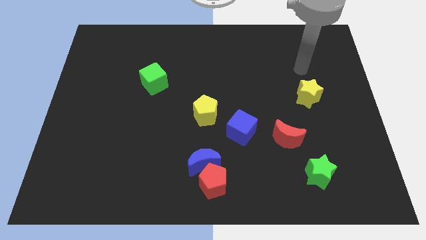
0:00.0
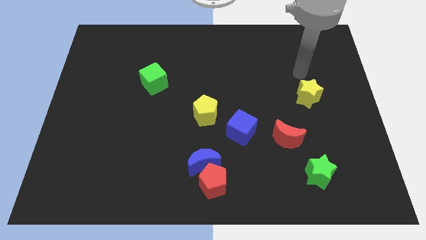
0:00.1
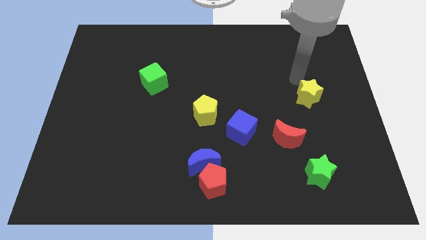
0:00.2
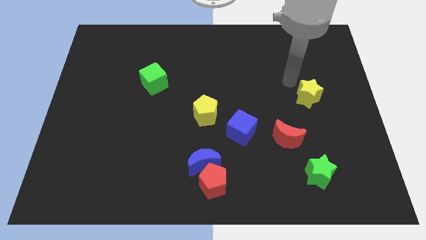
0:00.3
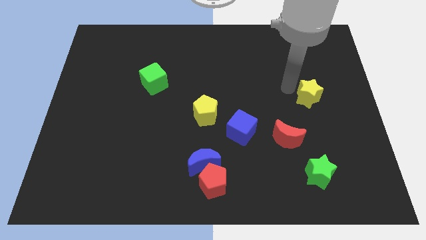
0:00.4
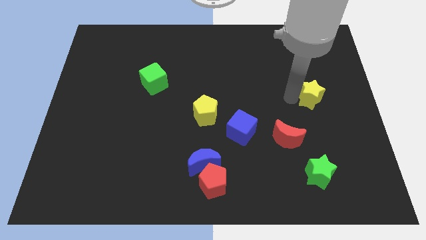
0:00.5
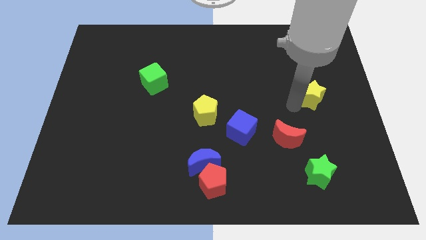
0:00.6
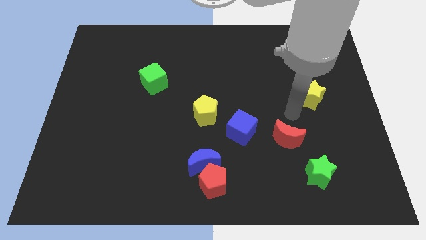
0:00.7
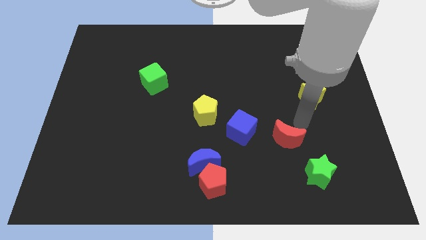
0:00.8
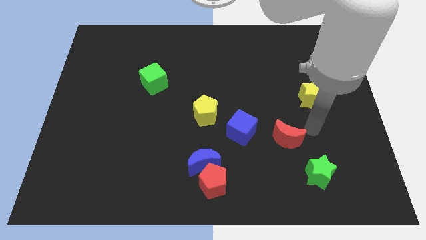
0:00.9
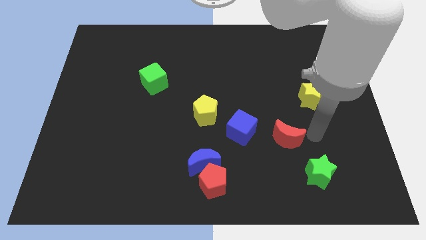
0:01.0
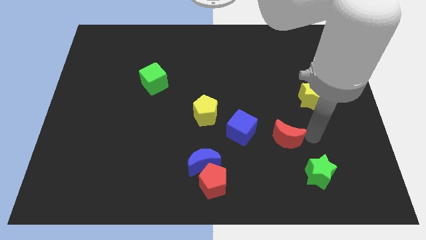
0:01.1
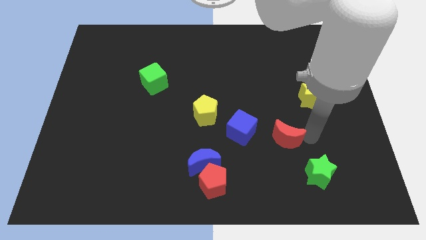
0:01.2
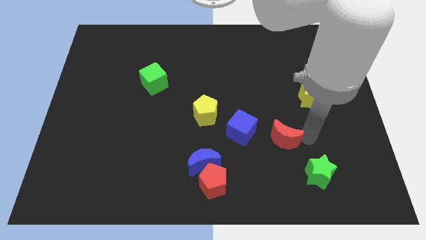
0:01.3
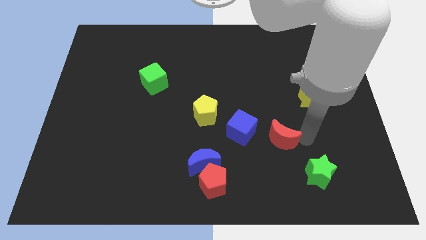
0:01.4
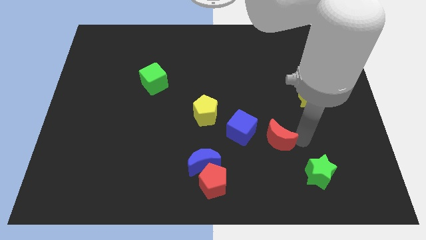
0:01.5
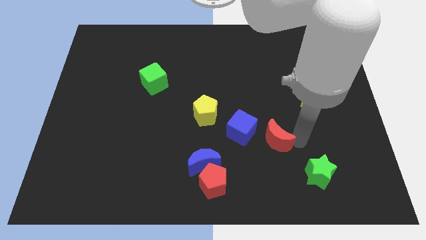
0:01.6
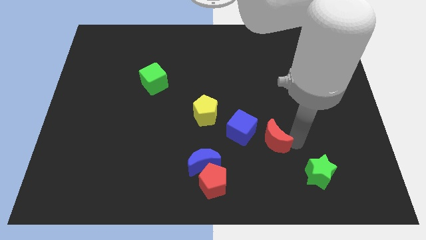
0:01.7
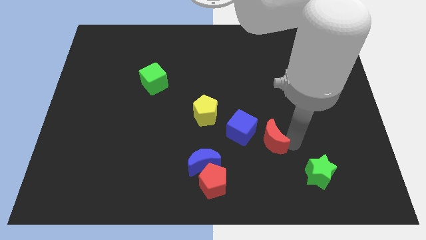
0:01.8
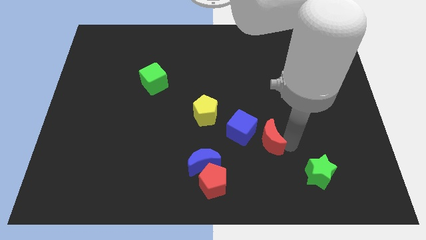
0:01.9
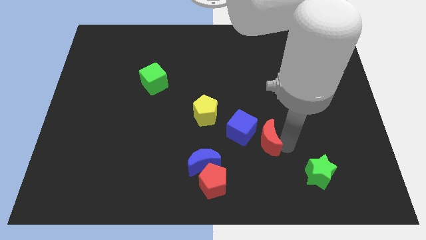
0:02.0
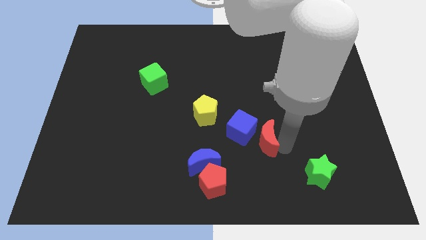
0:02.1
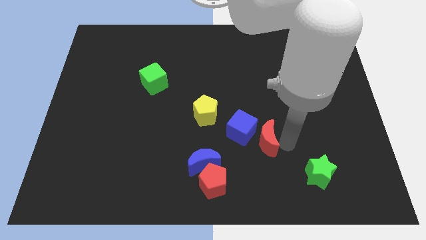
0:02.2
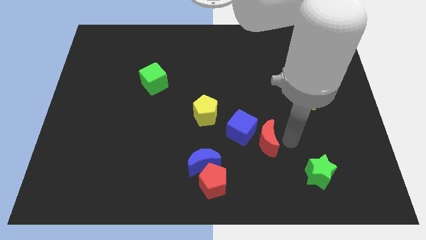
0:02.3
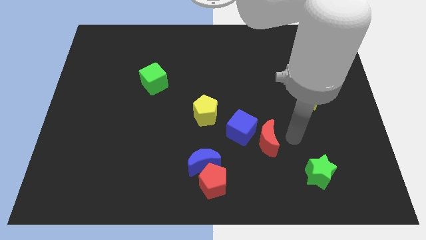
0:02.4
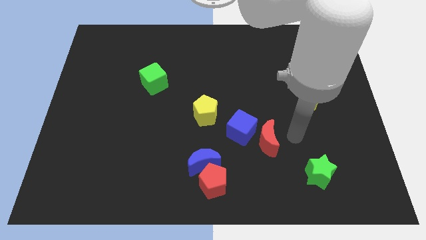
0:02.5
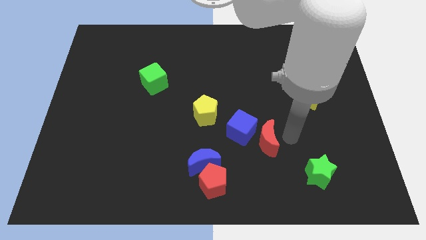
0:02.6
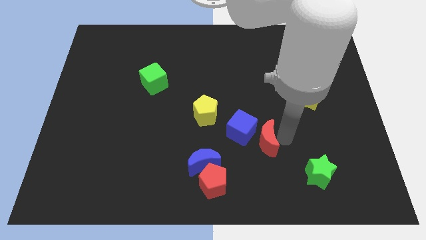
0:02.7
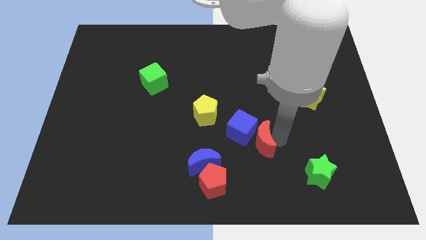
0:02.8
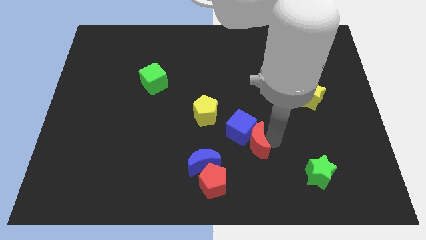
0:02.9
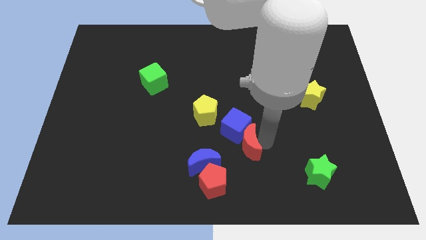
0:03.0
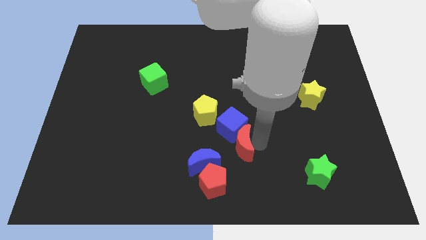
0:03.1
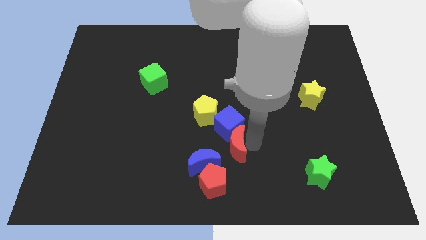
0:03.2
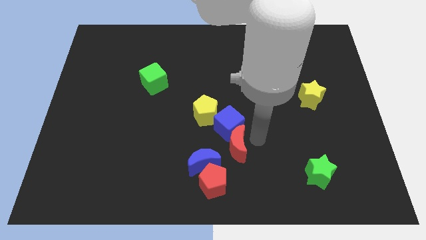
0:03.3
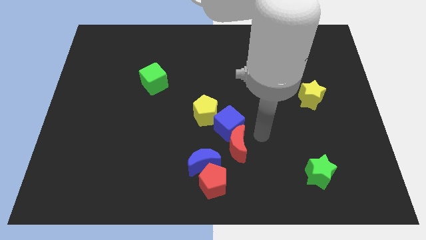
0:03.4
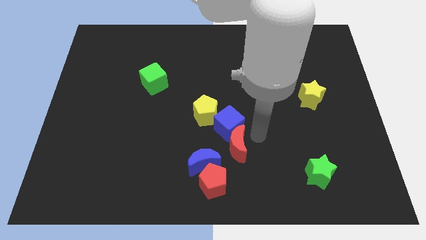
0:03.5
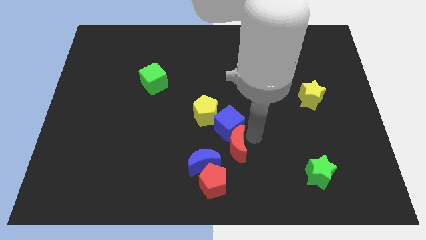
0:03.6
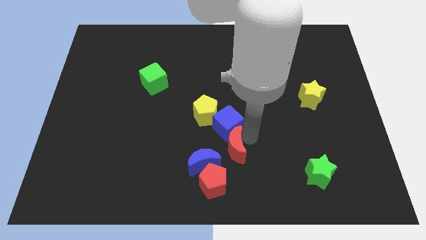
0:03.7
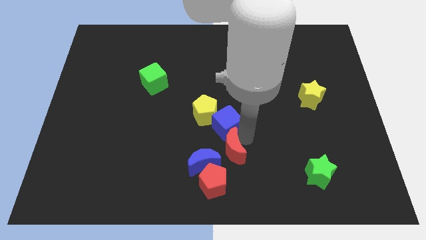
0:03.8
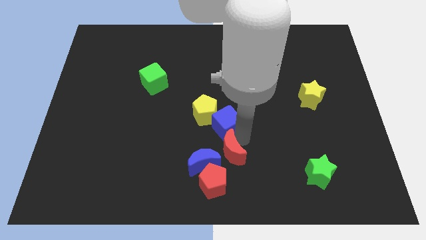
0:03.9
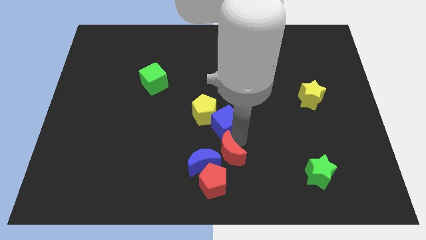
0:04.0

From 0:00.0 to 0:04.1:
move the red moon towards the blue moon

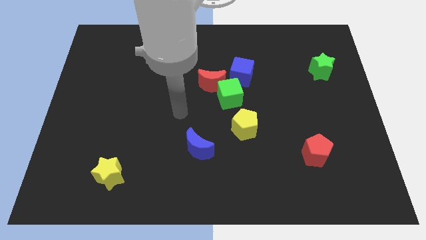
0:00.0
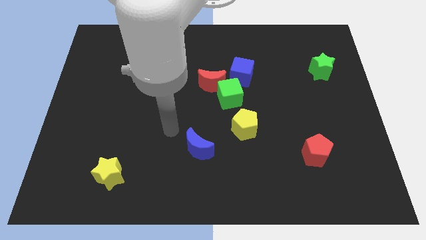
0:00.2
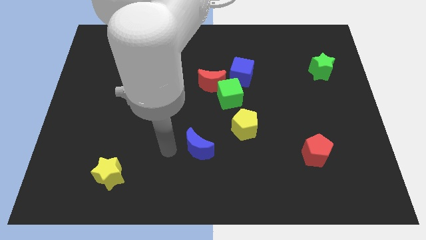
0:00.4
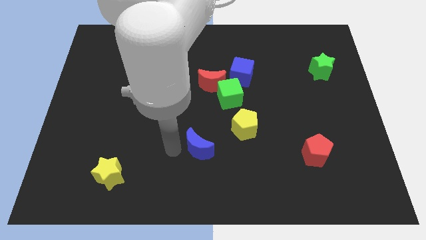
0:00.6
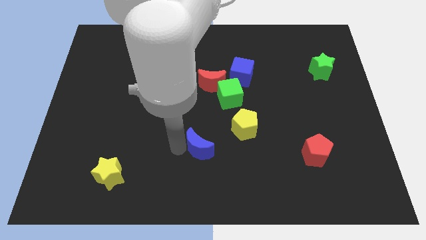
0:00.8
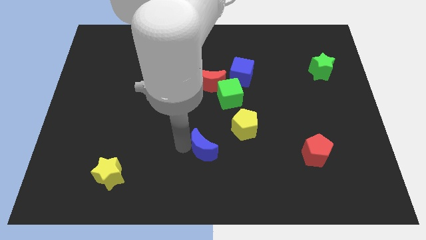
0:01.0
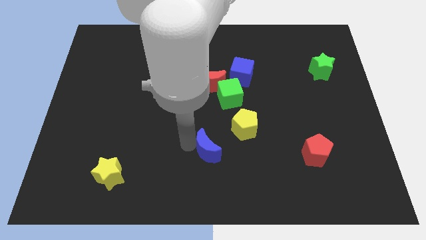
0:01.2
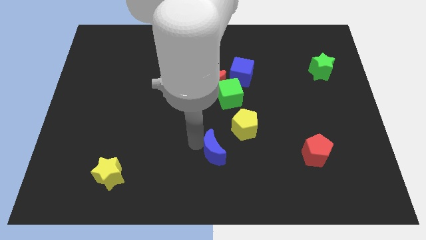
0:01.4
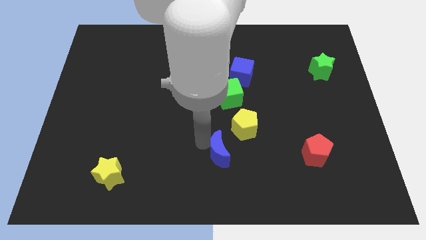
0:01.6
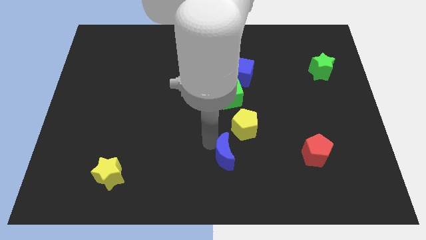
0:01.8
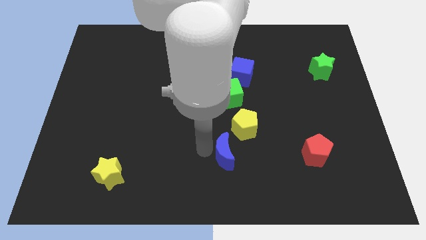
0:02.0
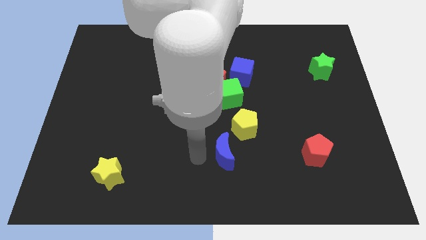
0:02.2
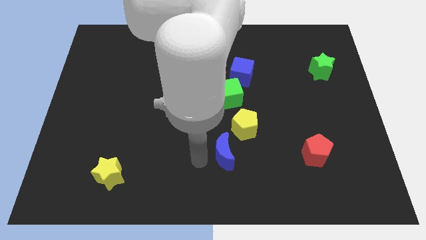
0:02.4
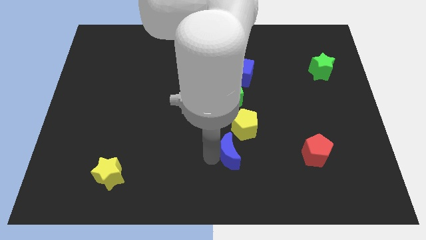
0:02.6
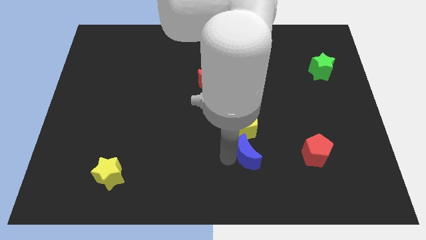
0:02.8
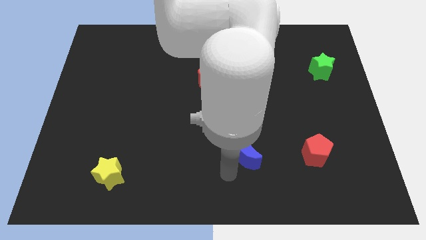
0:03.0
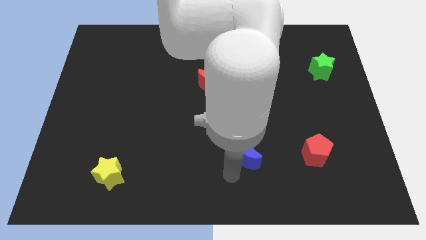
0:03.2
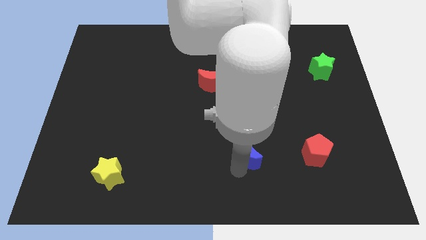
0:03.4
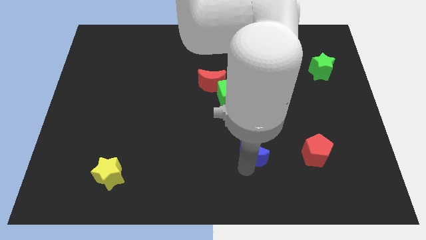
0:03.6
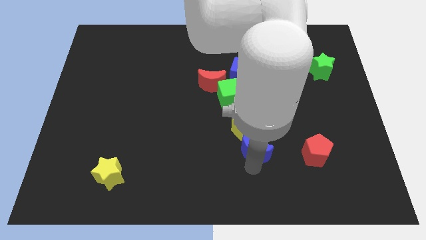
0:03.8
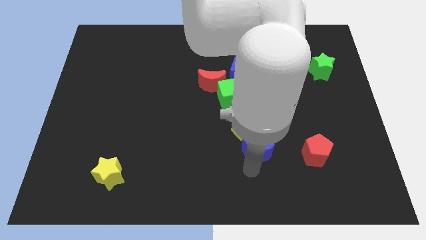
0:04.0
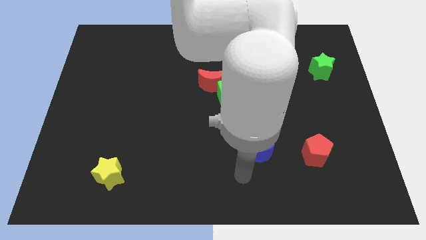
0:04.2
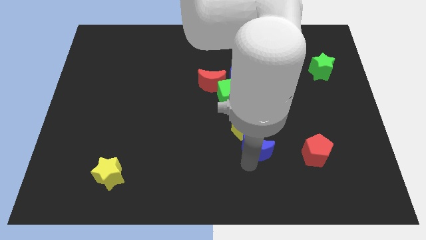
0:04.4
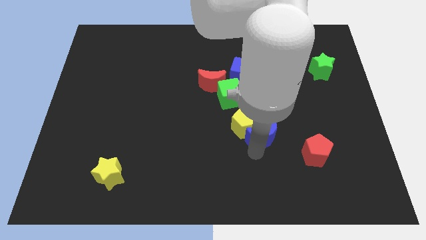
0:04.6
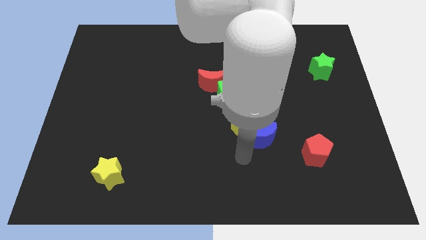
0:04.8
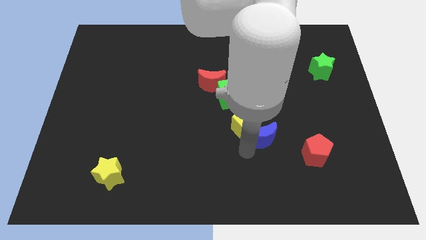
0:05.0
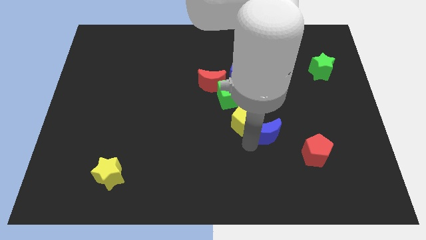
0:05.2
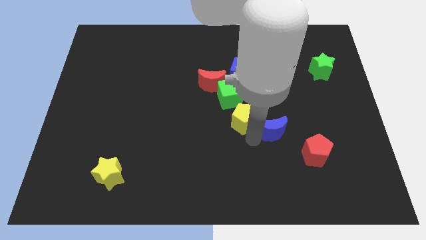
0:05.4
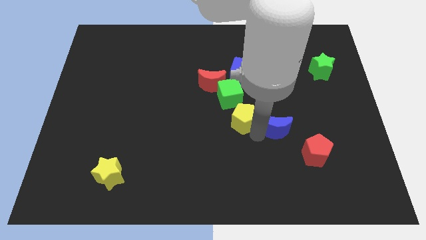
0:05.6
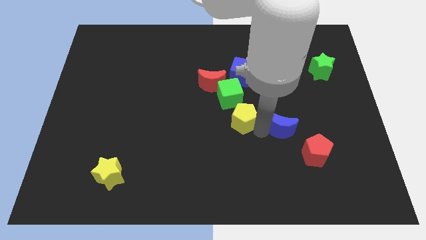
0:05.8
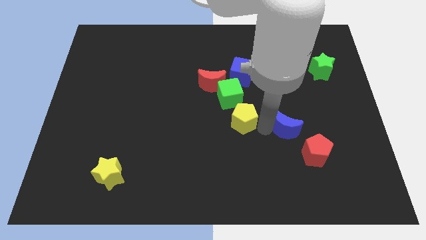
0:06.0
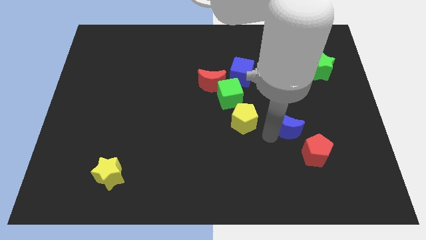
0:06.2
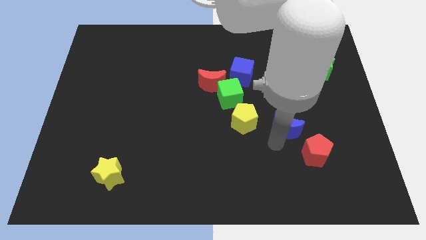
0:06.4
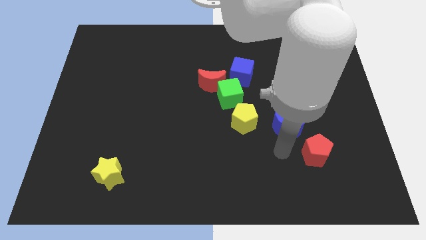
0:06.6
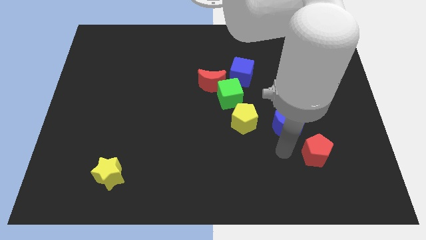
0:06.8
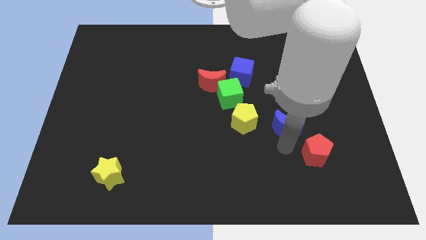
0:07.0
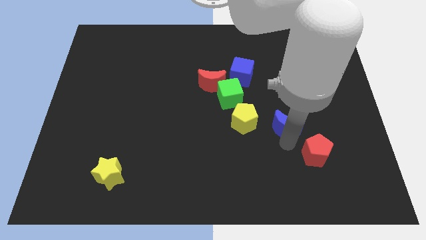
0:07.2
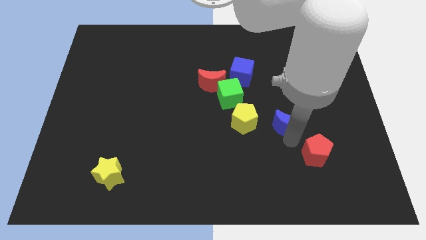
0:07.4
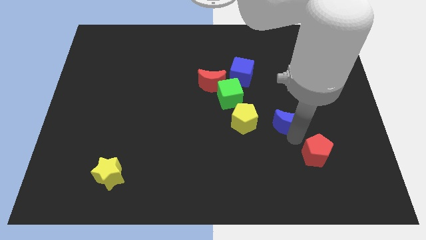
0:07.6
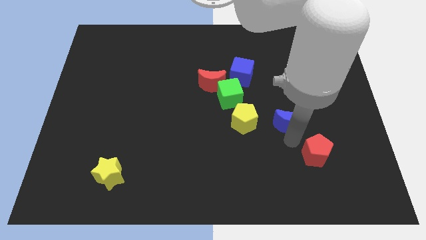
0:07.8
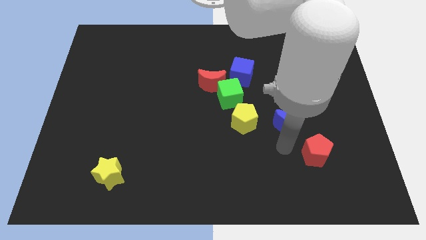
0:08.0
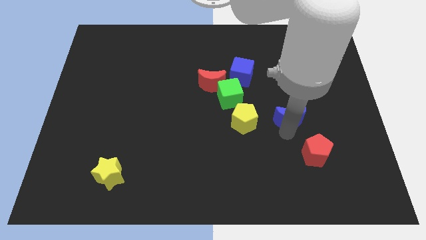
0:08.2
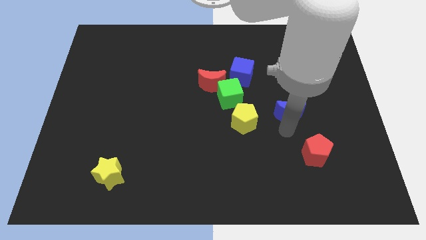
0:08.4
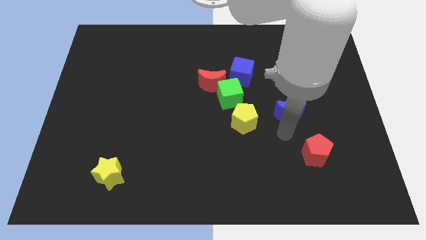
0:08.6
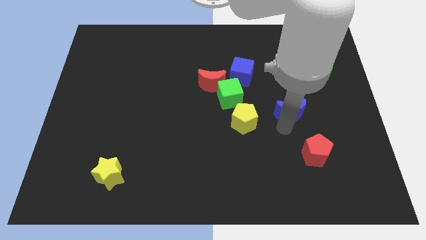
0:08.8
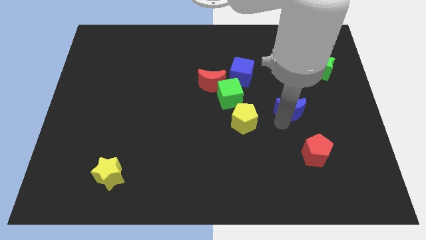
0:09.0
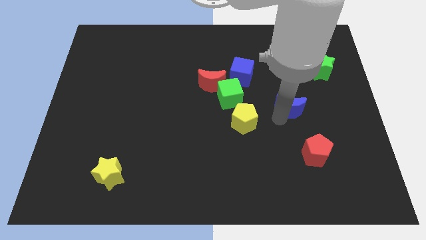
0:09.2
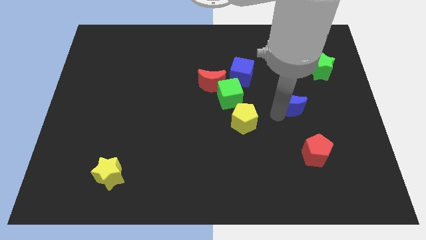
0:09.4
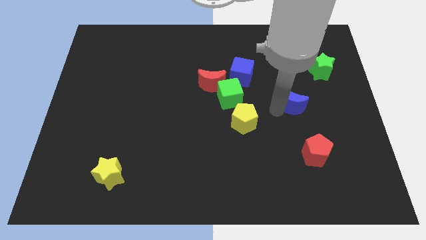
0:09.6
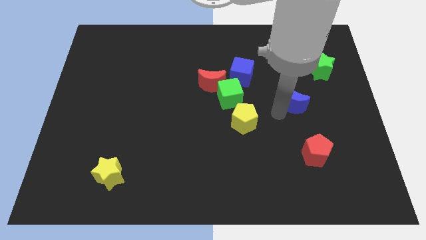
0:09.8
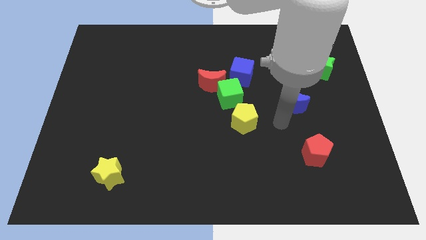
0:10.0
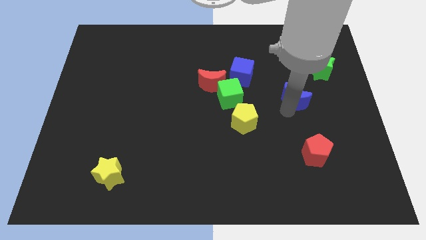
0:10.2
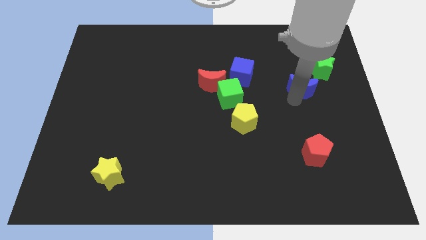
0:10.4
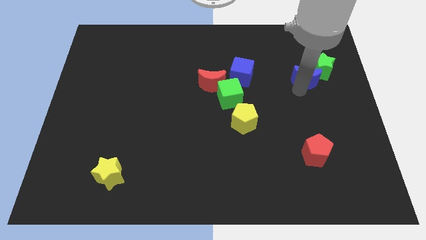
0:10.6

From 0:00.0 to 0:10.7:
push the blue moon close to the green star
